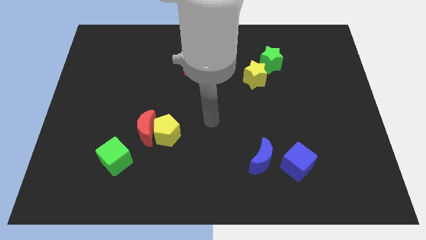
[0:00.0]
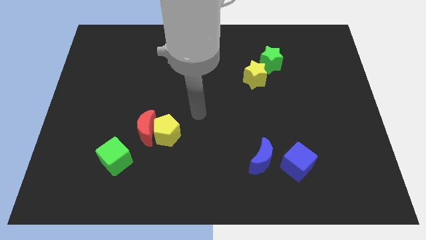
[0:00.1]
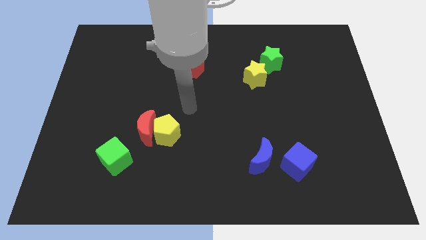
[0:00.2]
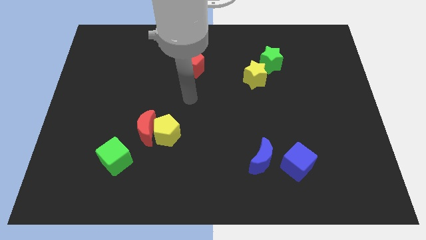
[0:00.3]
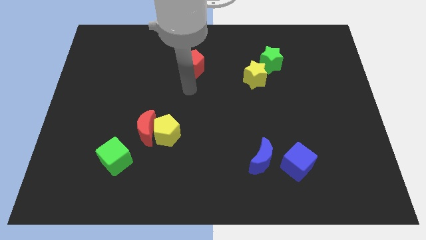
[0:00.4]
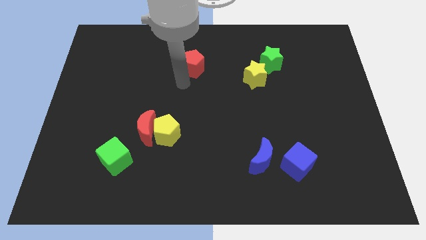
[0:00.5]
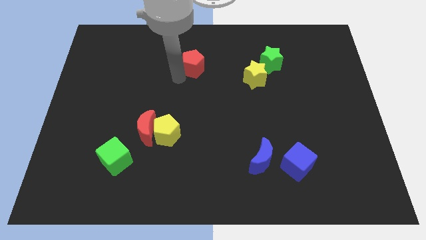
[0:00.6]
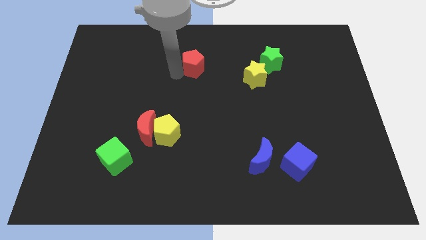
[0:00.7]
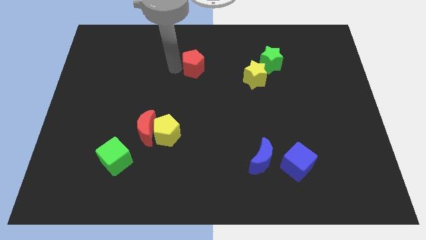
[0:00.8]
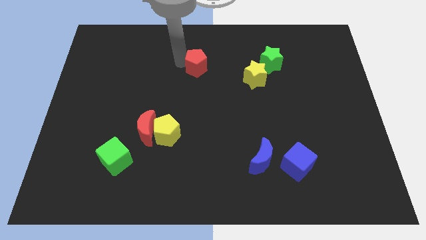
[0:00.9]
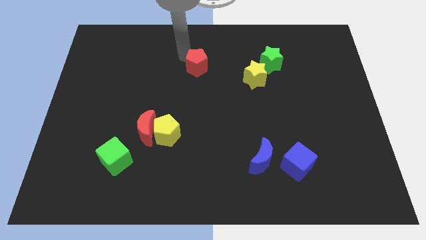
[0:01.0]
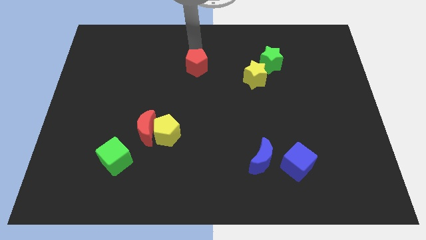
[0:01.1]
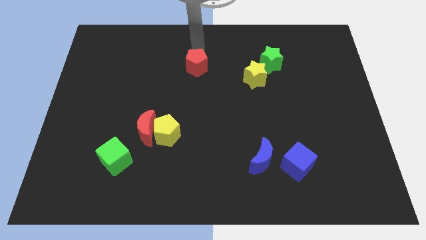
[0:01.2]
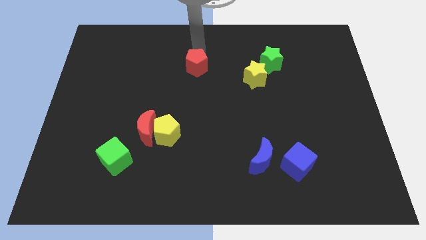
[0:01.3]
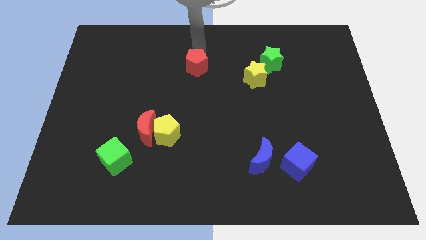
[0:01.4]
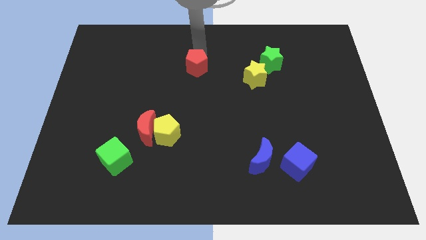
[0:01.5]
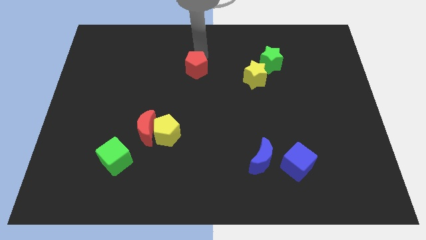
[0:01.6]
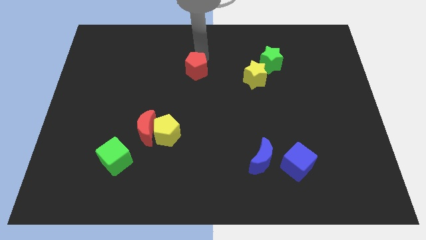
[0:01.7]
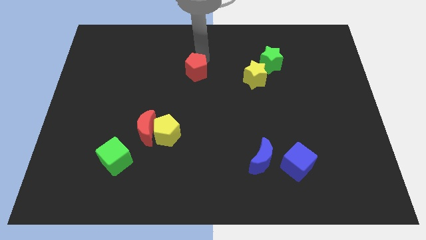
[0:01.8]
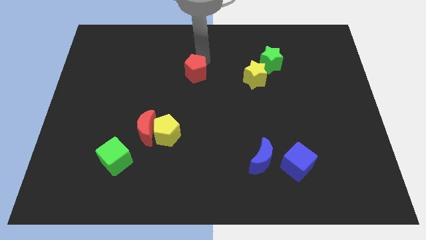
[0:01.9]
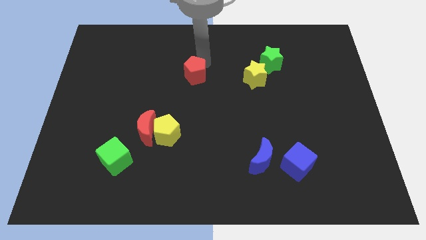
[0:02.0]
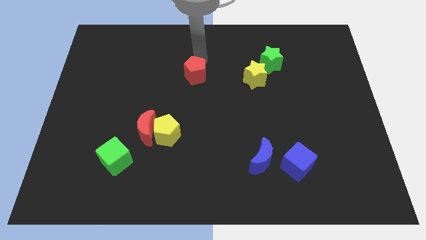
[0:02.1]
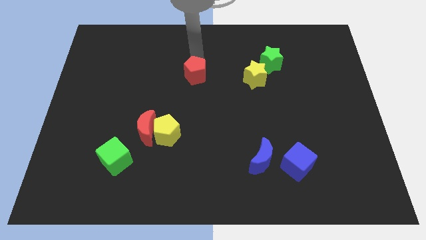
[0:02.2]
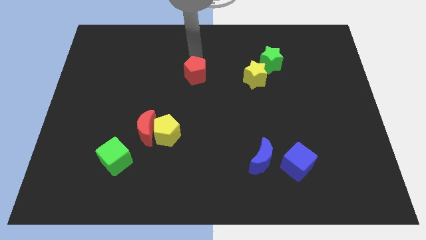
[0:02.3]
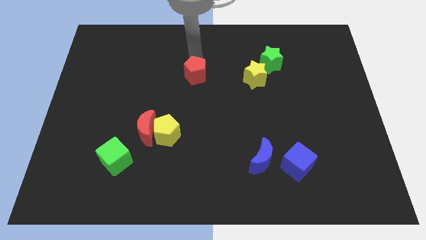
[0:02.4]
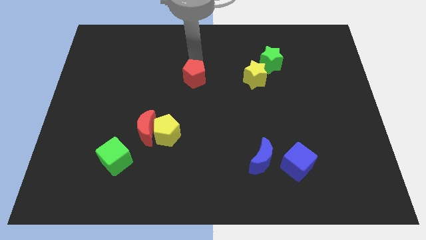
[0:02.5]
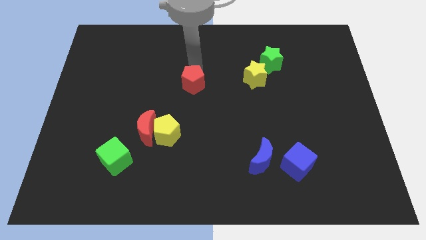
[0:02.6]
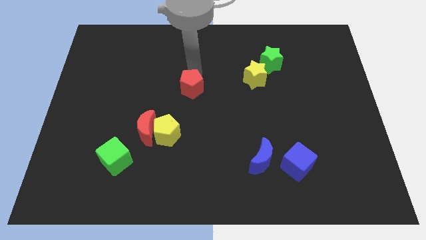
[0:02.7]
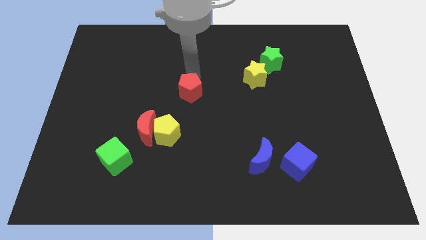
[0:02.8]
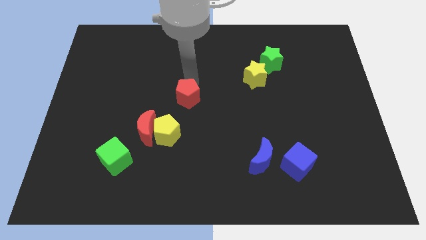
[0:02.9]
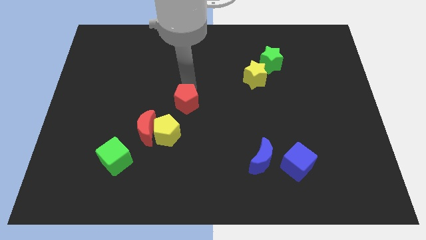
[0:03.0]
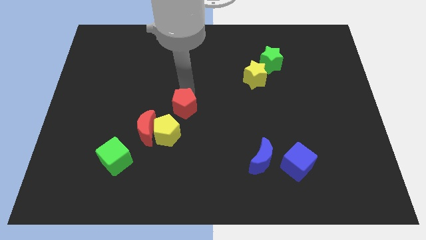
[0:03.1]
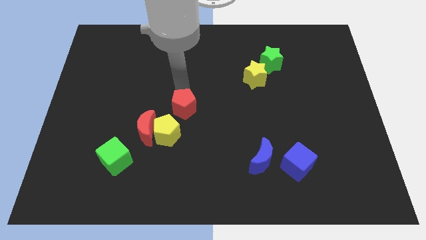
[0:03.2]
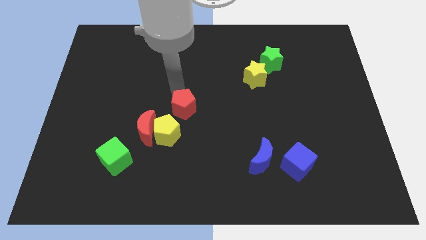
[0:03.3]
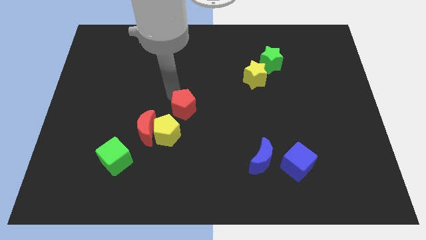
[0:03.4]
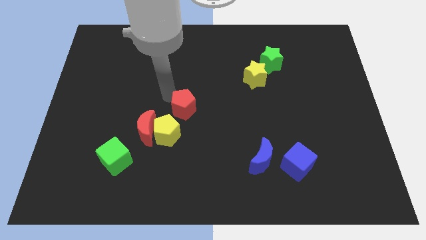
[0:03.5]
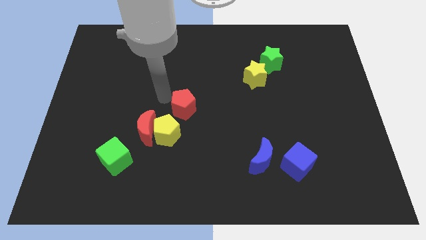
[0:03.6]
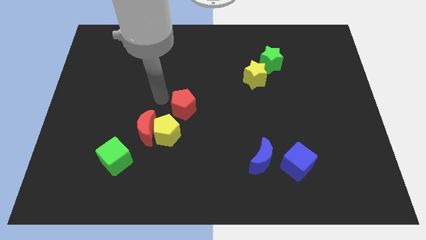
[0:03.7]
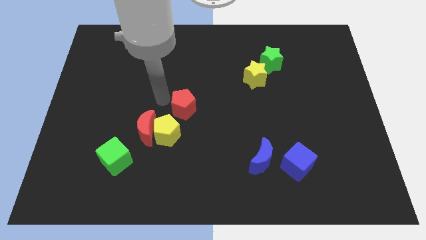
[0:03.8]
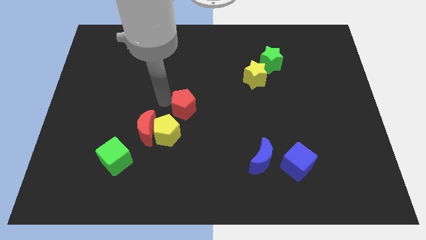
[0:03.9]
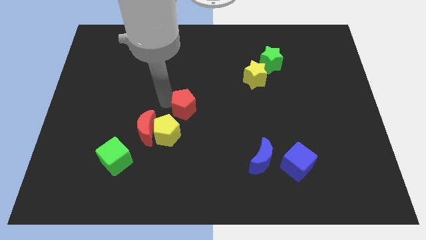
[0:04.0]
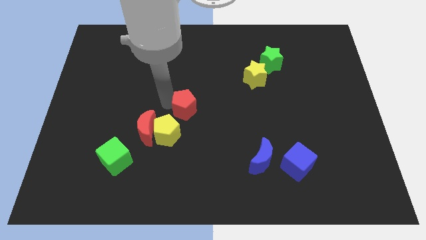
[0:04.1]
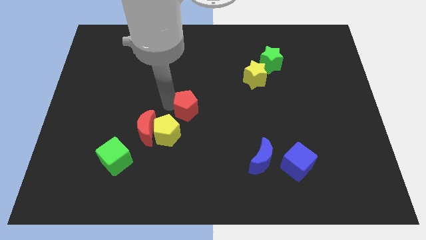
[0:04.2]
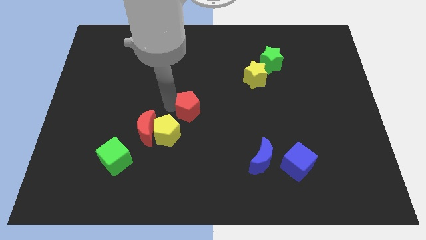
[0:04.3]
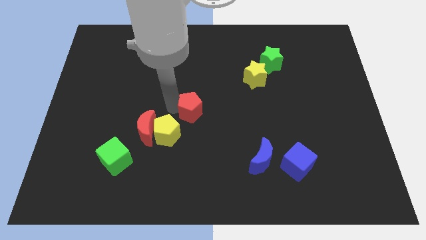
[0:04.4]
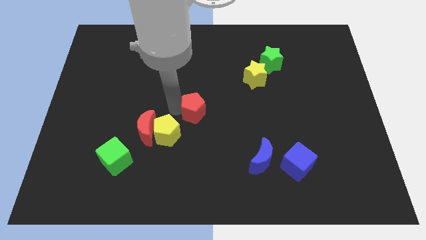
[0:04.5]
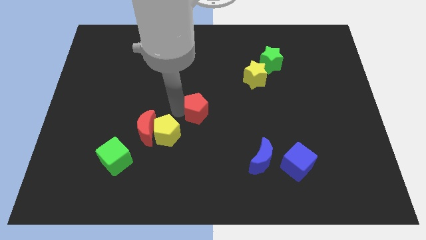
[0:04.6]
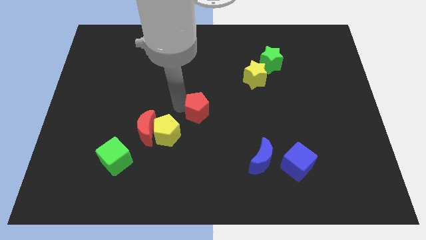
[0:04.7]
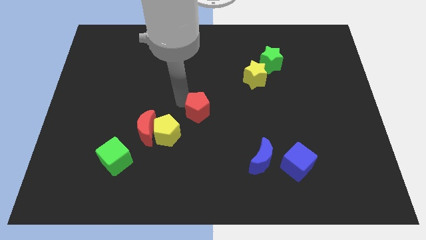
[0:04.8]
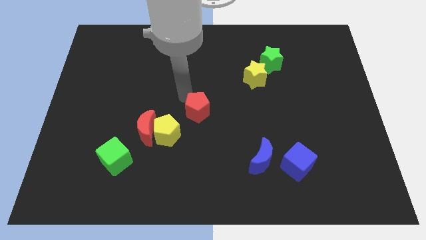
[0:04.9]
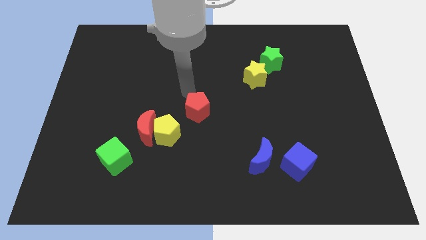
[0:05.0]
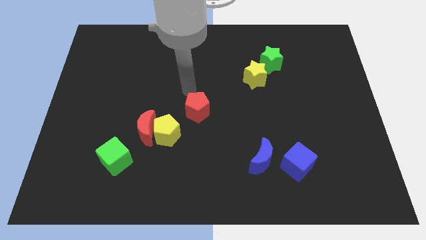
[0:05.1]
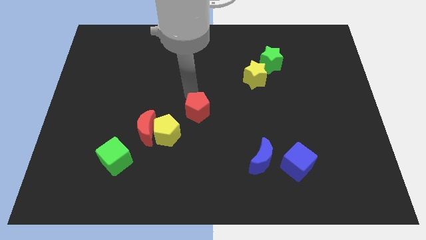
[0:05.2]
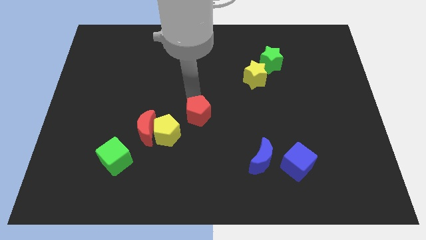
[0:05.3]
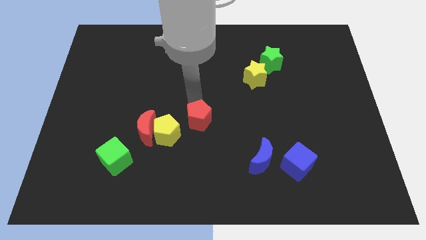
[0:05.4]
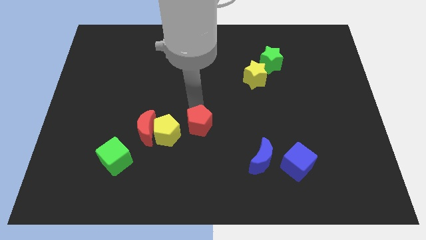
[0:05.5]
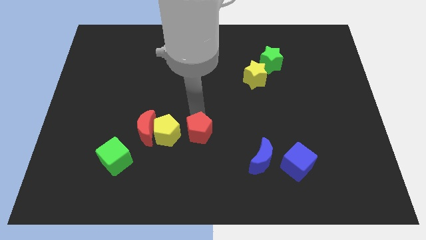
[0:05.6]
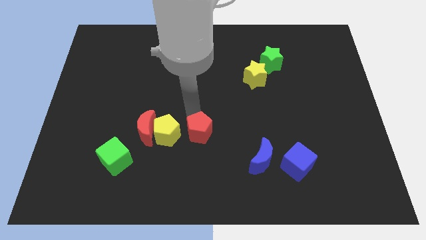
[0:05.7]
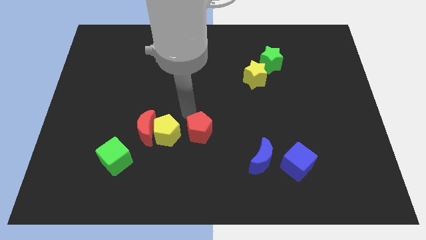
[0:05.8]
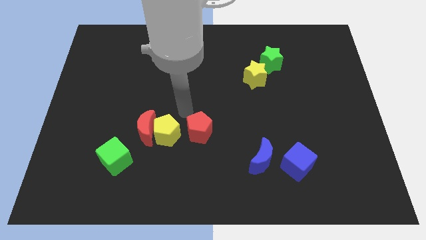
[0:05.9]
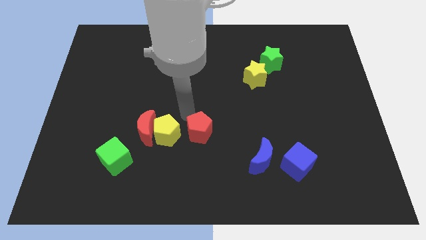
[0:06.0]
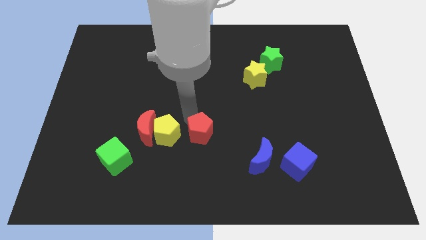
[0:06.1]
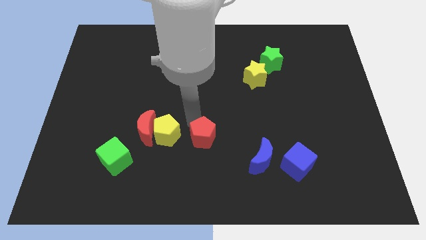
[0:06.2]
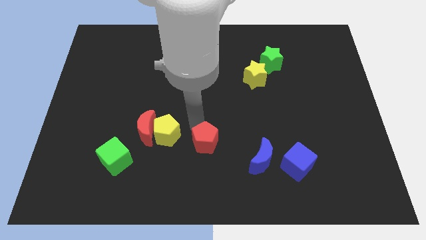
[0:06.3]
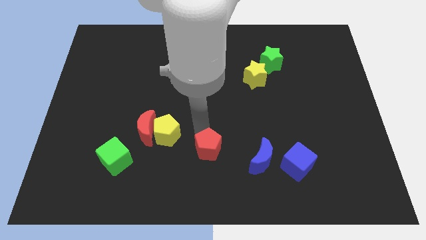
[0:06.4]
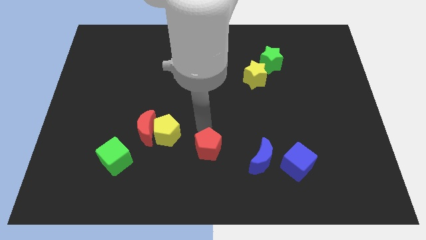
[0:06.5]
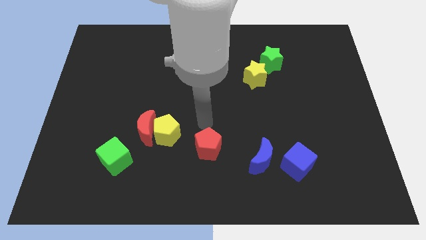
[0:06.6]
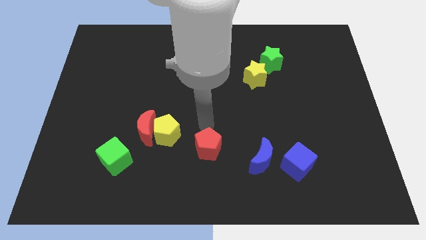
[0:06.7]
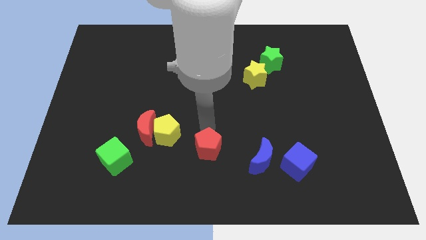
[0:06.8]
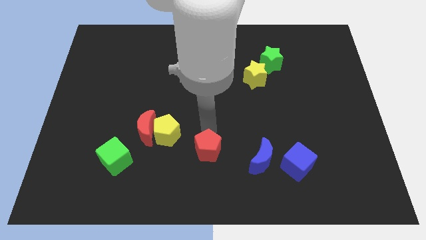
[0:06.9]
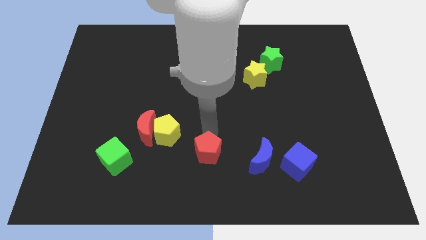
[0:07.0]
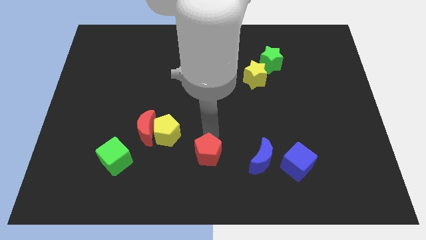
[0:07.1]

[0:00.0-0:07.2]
push the red pentagon to the bottom
